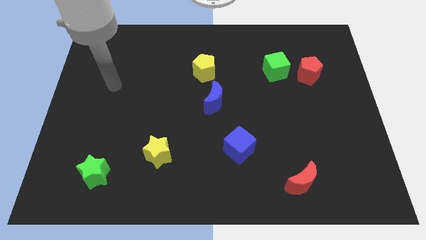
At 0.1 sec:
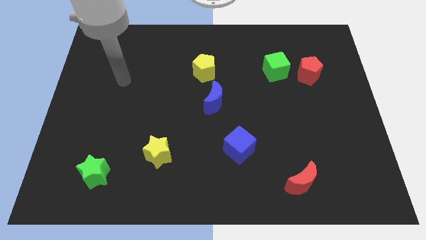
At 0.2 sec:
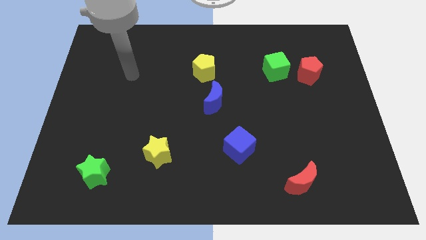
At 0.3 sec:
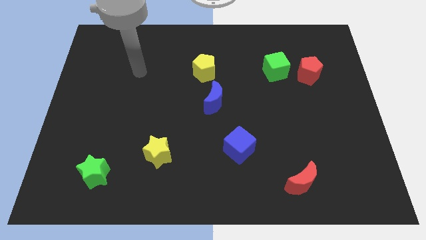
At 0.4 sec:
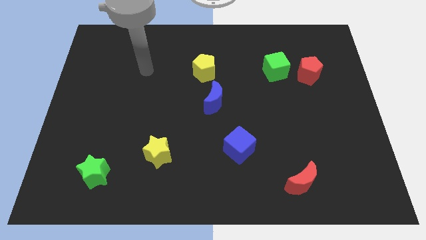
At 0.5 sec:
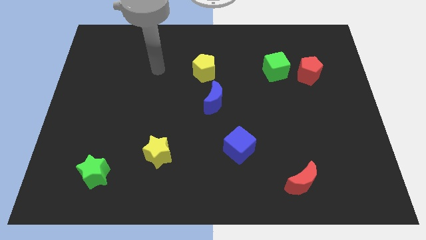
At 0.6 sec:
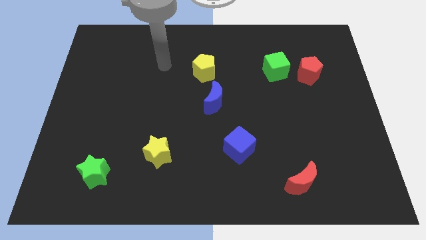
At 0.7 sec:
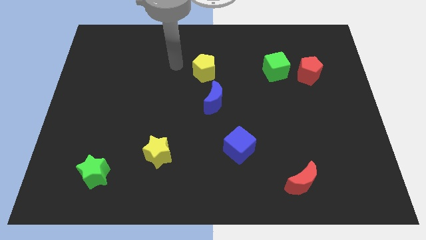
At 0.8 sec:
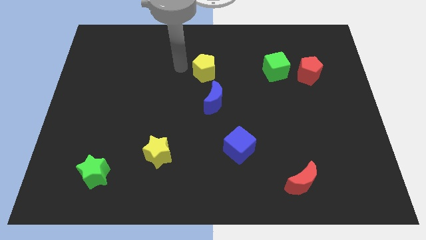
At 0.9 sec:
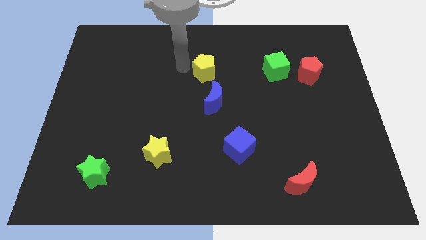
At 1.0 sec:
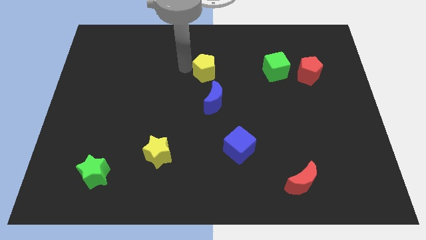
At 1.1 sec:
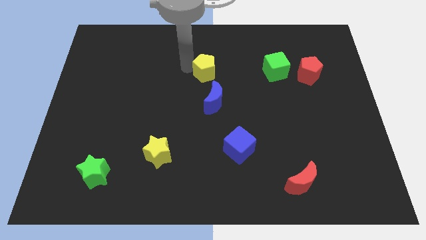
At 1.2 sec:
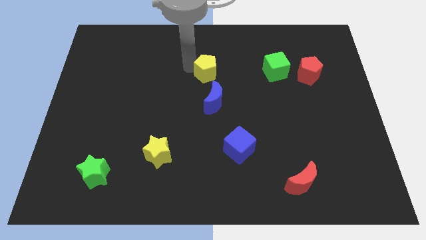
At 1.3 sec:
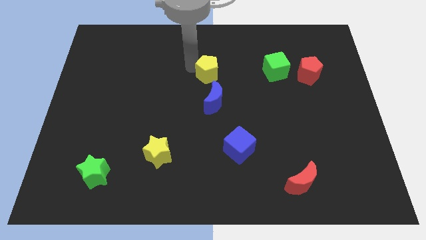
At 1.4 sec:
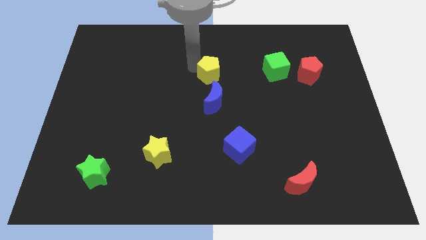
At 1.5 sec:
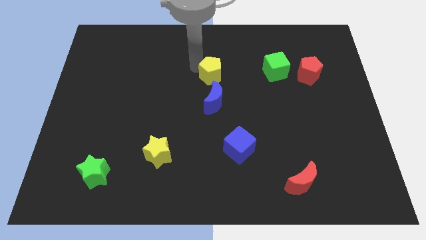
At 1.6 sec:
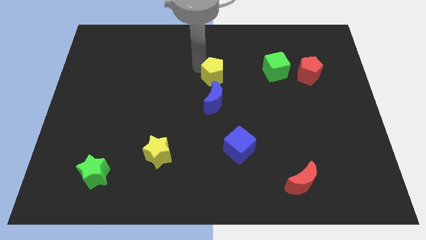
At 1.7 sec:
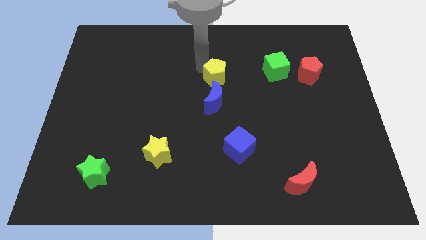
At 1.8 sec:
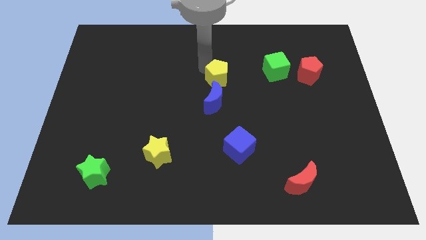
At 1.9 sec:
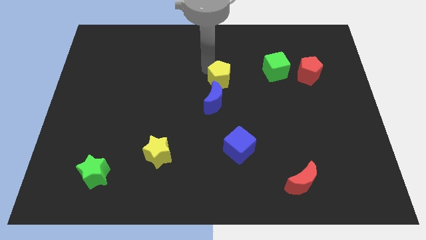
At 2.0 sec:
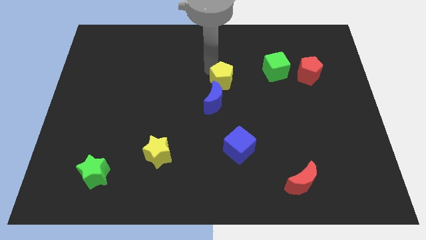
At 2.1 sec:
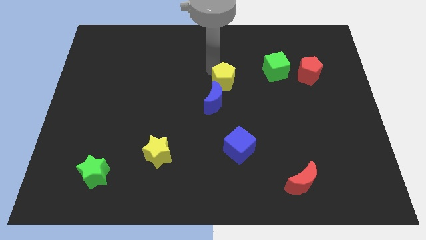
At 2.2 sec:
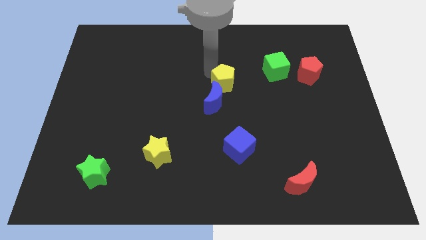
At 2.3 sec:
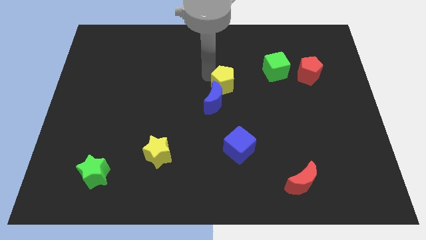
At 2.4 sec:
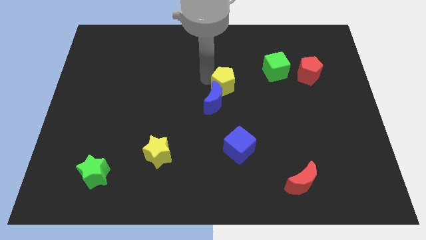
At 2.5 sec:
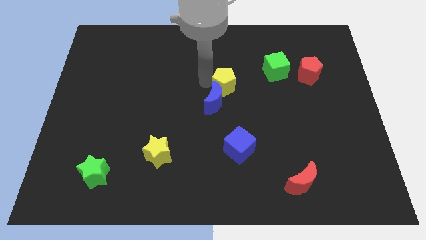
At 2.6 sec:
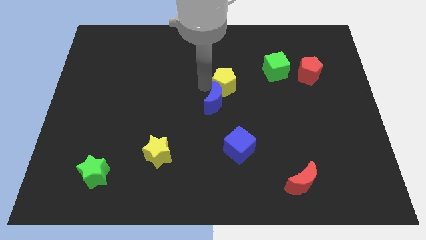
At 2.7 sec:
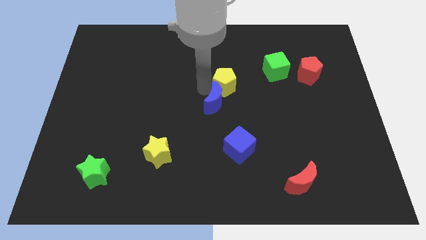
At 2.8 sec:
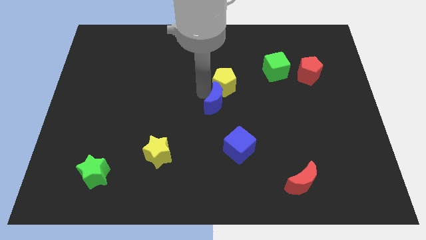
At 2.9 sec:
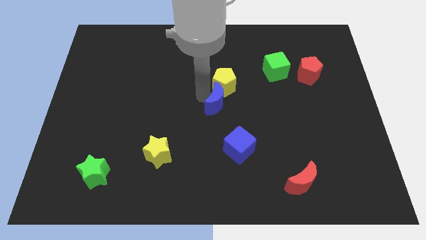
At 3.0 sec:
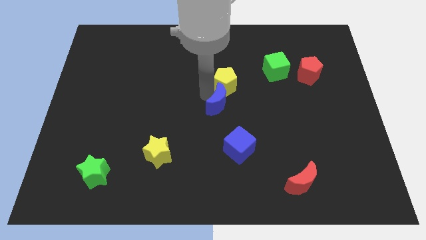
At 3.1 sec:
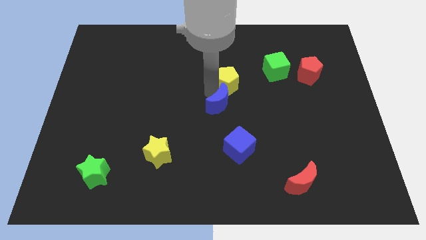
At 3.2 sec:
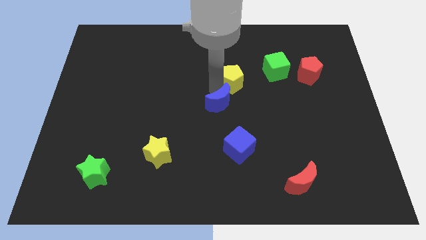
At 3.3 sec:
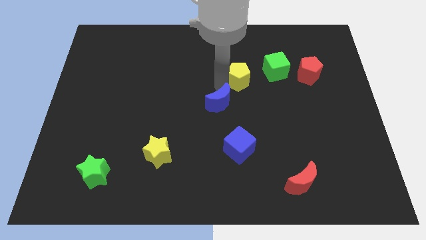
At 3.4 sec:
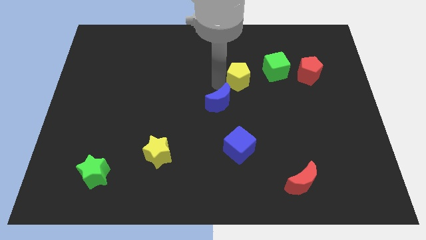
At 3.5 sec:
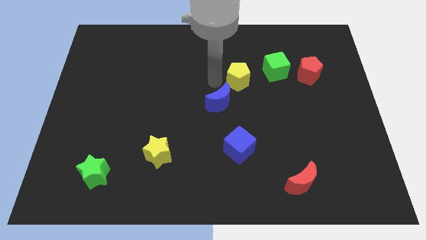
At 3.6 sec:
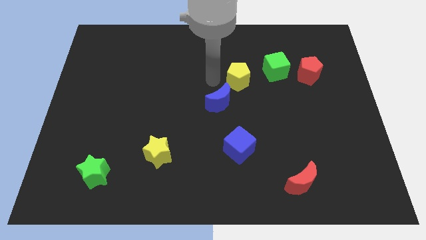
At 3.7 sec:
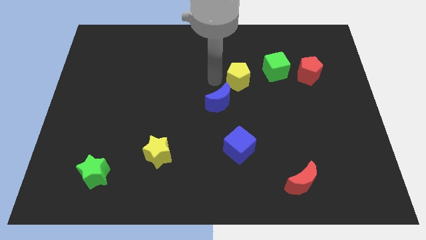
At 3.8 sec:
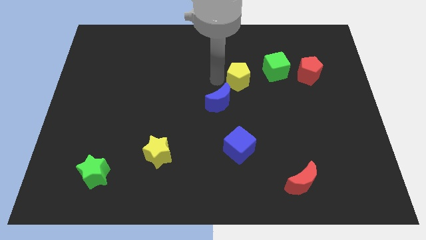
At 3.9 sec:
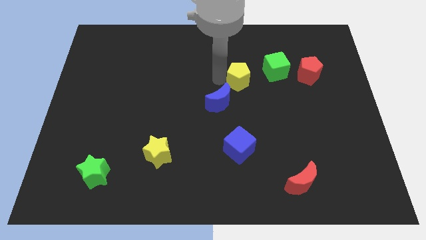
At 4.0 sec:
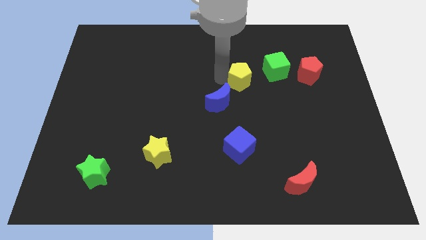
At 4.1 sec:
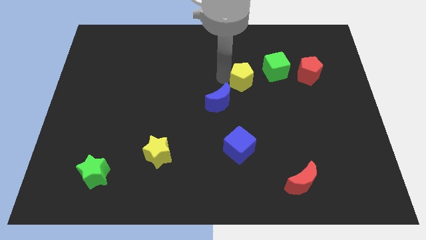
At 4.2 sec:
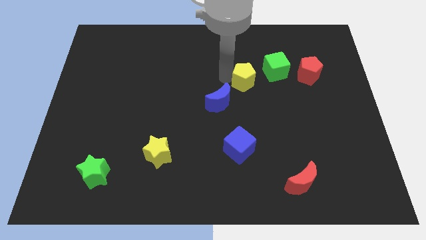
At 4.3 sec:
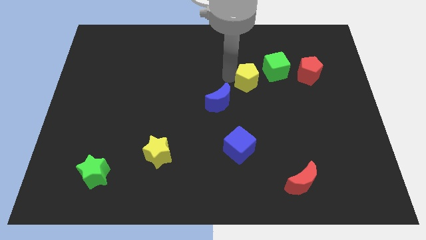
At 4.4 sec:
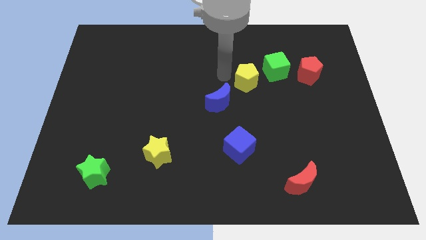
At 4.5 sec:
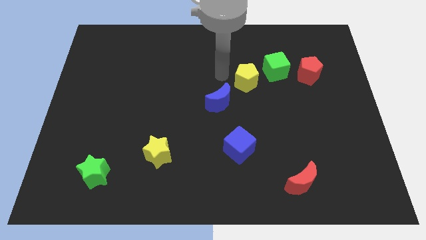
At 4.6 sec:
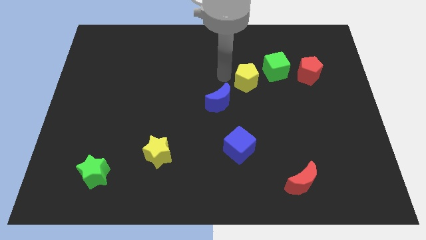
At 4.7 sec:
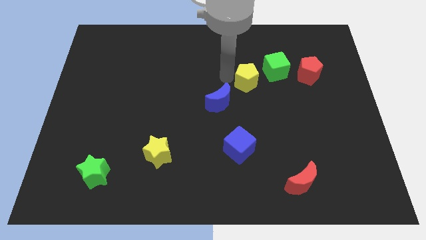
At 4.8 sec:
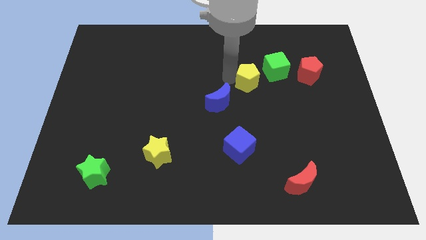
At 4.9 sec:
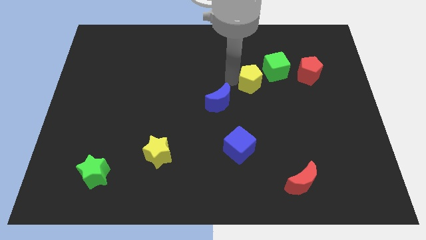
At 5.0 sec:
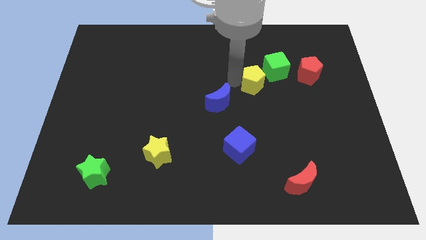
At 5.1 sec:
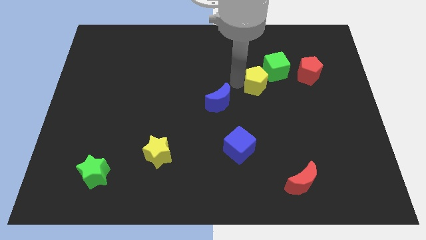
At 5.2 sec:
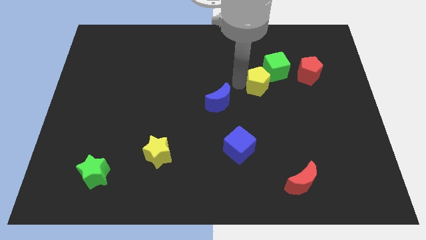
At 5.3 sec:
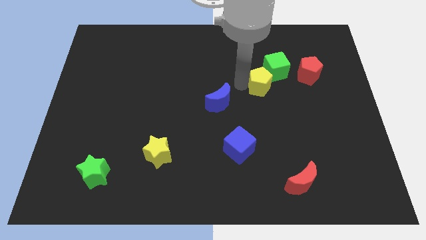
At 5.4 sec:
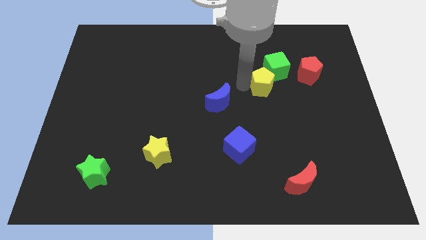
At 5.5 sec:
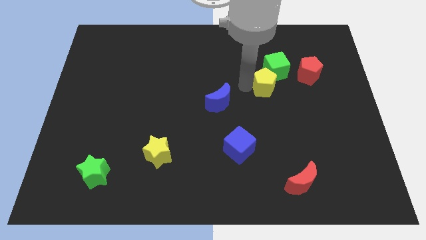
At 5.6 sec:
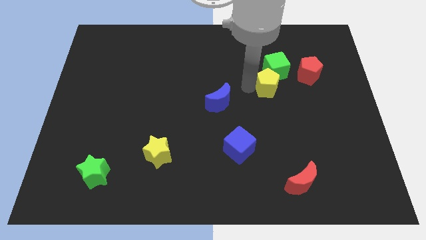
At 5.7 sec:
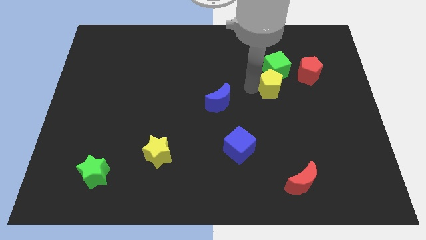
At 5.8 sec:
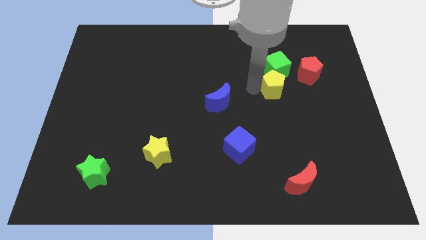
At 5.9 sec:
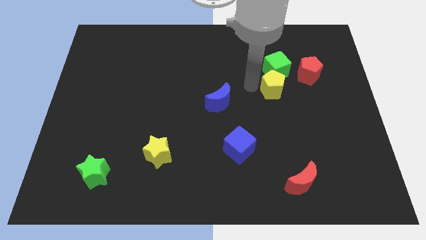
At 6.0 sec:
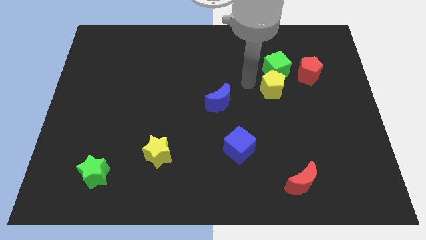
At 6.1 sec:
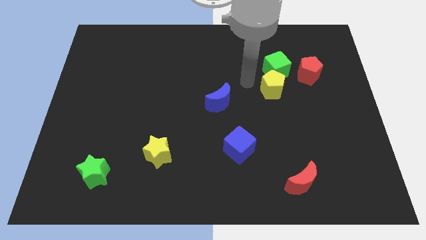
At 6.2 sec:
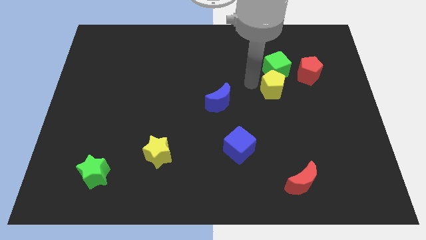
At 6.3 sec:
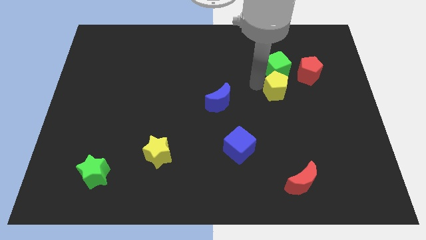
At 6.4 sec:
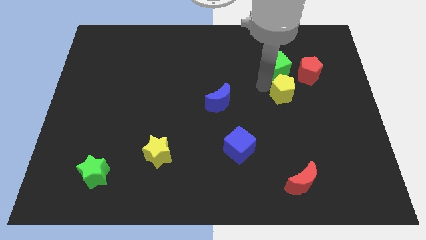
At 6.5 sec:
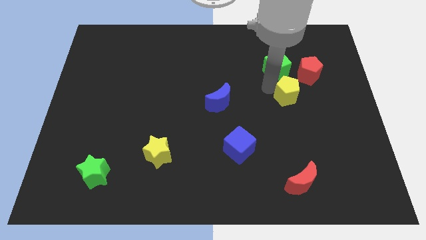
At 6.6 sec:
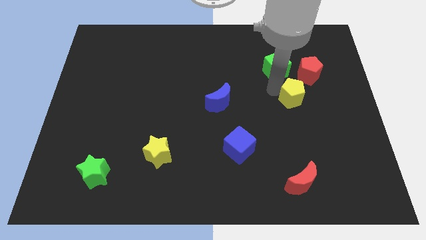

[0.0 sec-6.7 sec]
put the yellow pentagon to the bottom of the red pentagon

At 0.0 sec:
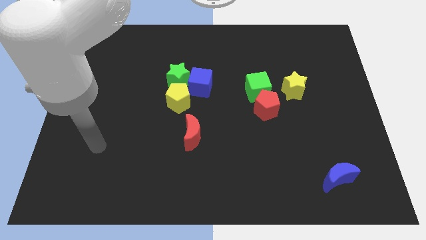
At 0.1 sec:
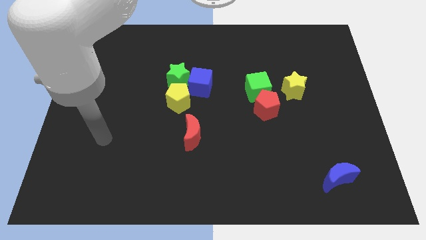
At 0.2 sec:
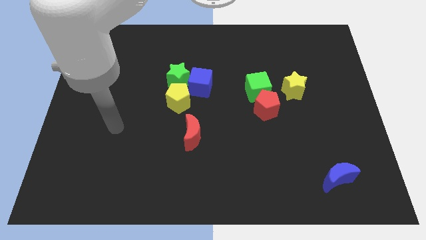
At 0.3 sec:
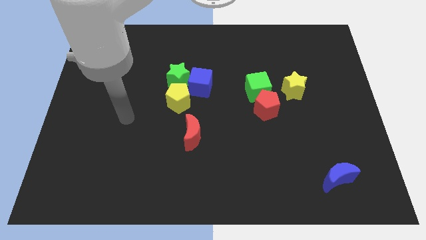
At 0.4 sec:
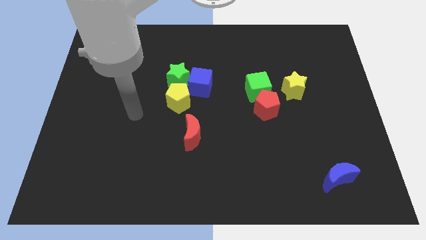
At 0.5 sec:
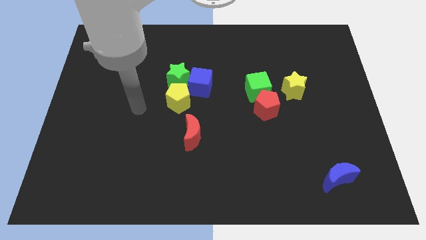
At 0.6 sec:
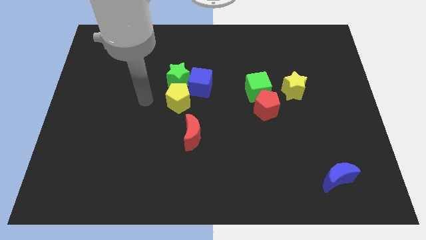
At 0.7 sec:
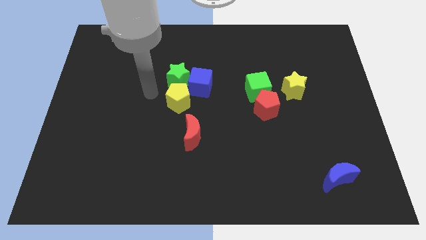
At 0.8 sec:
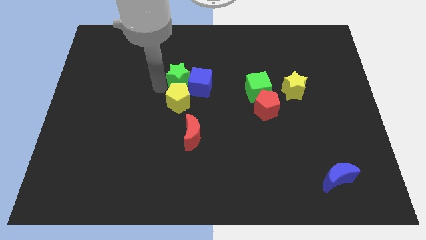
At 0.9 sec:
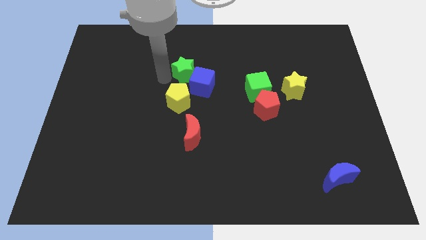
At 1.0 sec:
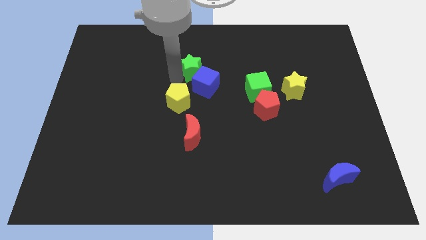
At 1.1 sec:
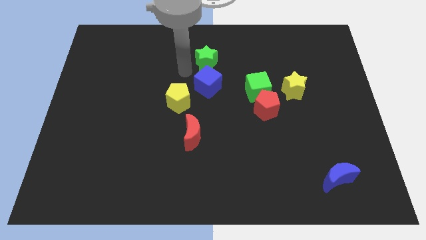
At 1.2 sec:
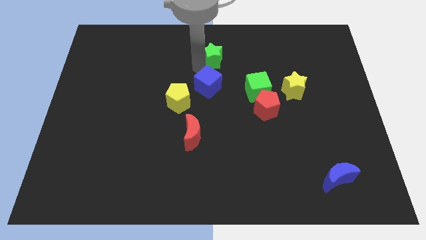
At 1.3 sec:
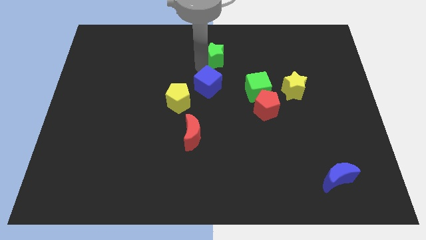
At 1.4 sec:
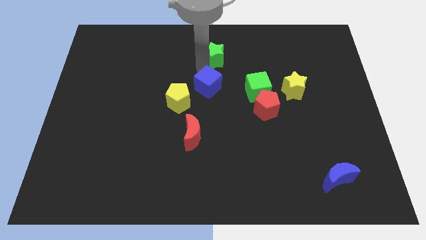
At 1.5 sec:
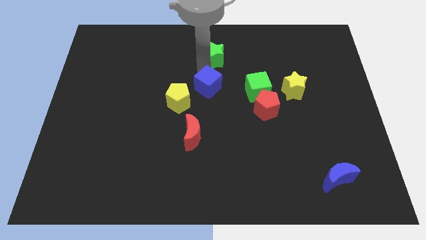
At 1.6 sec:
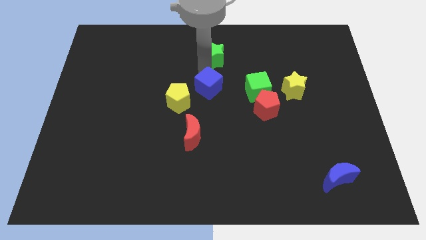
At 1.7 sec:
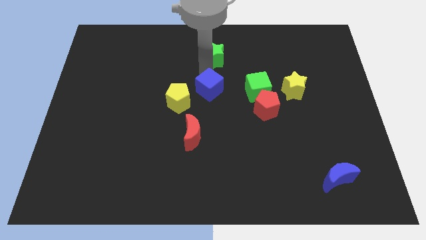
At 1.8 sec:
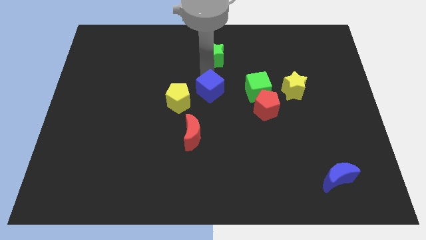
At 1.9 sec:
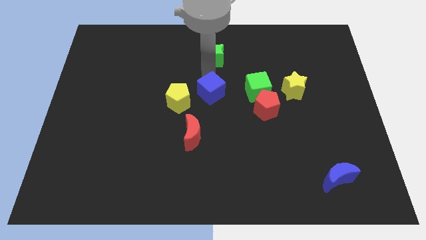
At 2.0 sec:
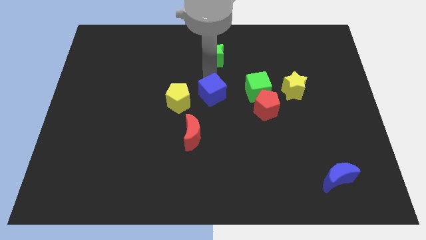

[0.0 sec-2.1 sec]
put the blue cube to the left of the red pentagon
